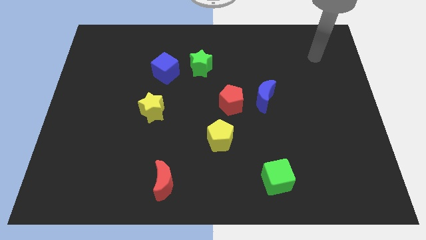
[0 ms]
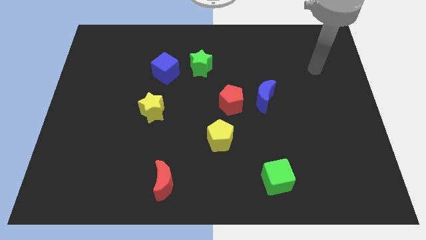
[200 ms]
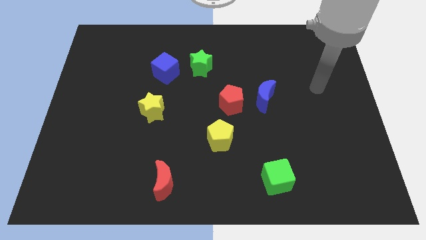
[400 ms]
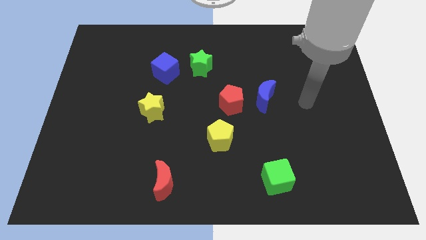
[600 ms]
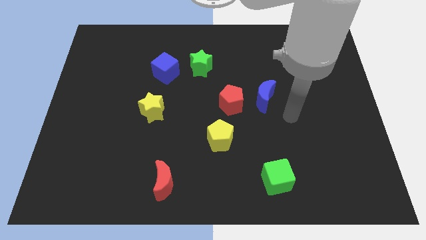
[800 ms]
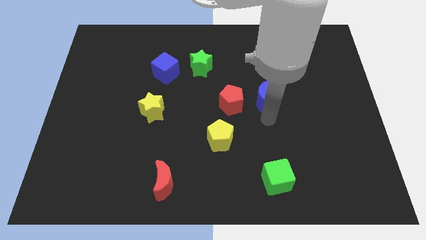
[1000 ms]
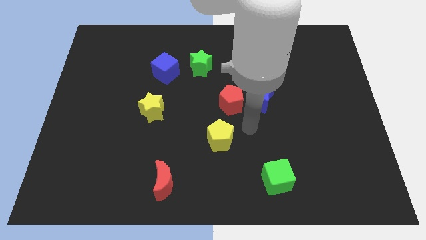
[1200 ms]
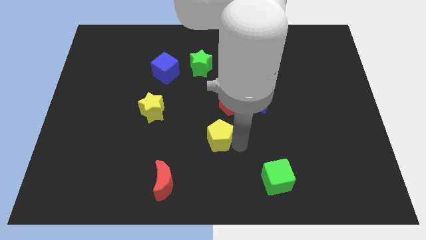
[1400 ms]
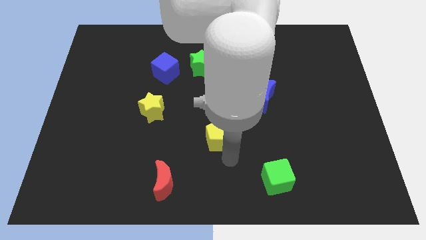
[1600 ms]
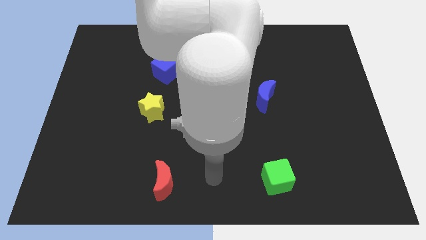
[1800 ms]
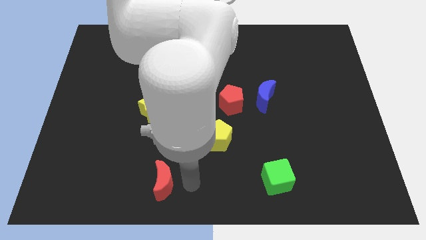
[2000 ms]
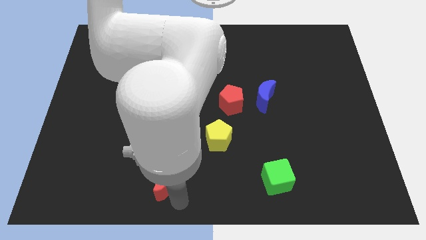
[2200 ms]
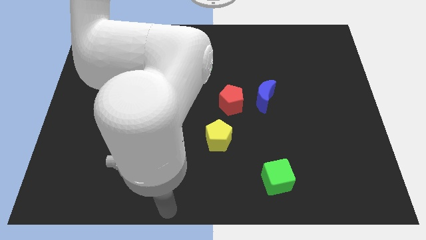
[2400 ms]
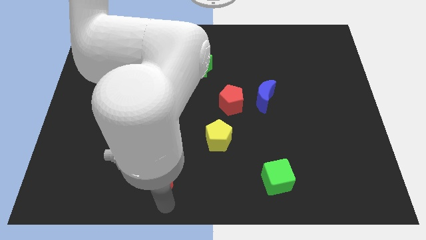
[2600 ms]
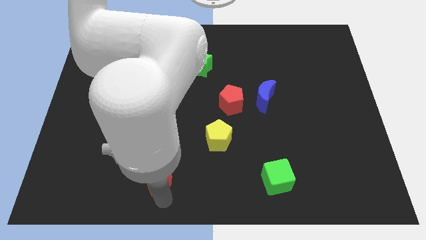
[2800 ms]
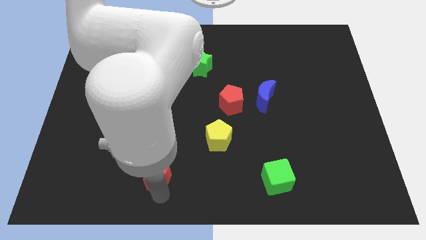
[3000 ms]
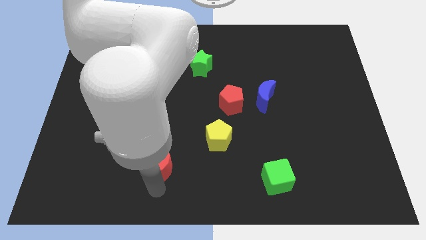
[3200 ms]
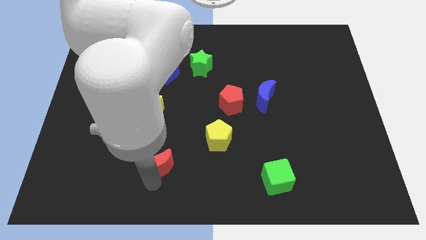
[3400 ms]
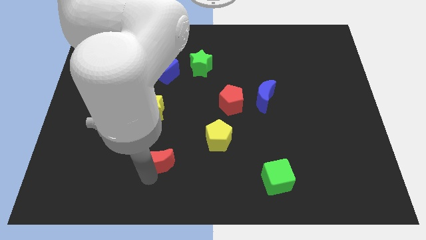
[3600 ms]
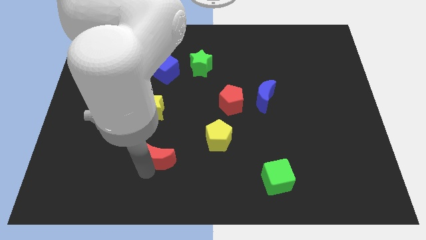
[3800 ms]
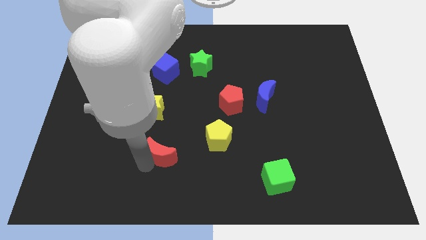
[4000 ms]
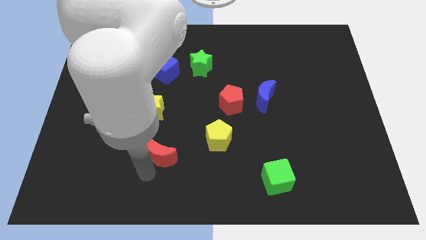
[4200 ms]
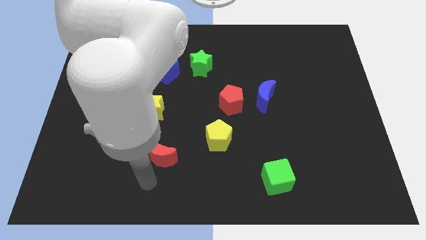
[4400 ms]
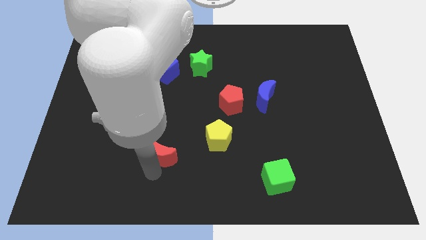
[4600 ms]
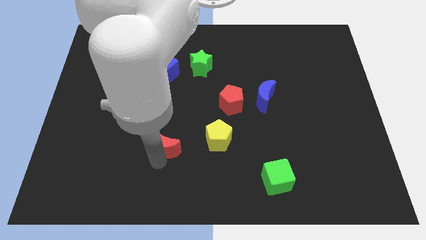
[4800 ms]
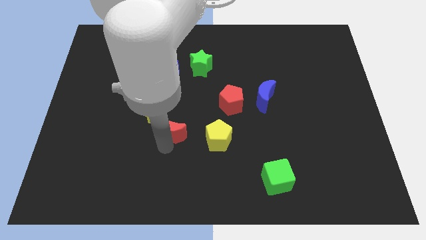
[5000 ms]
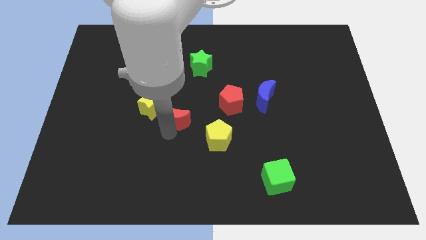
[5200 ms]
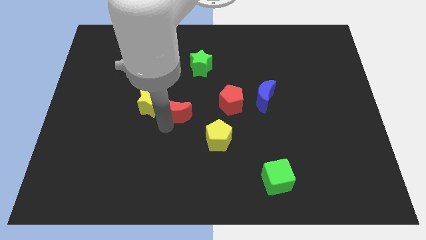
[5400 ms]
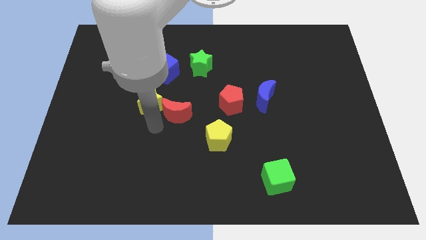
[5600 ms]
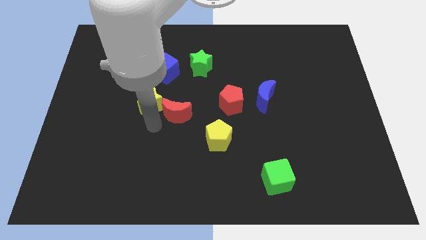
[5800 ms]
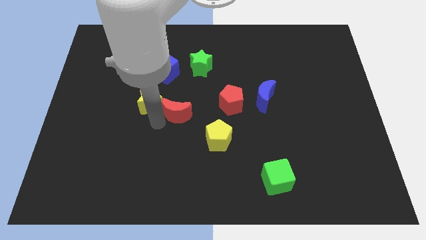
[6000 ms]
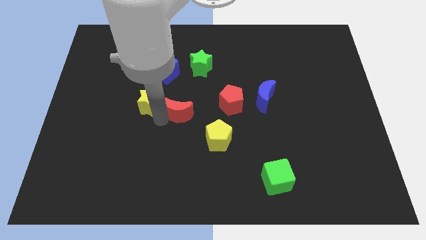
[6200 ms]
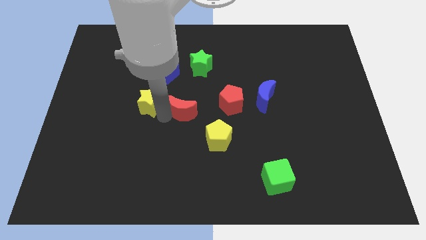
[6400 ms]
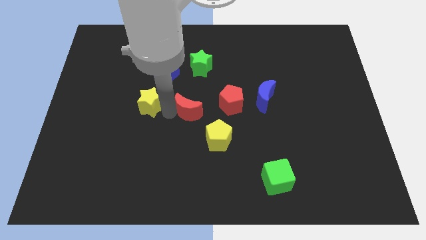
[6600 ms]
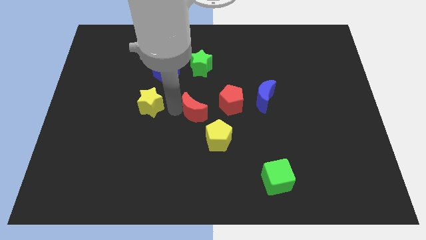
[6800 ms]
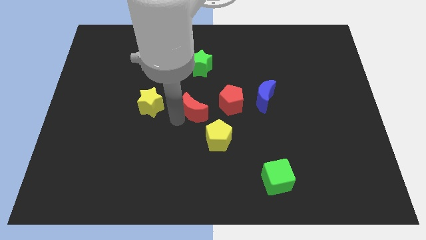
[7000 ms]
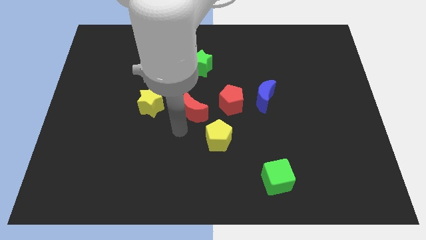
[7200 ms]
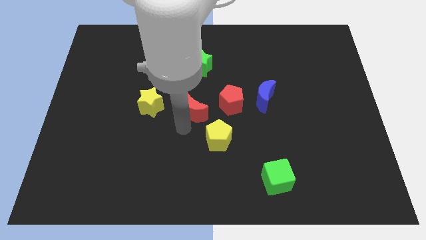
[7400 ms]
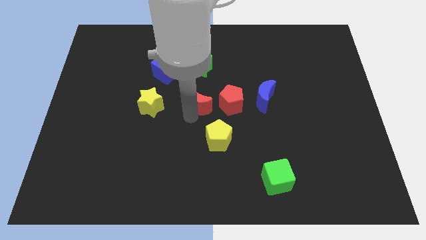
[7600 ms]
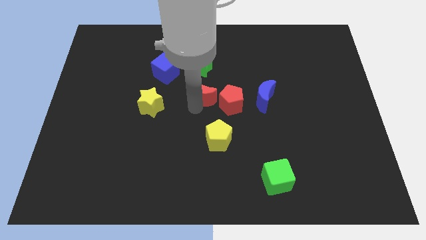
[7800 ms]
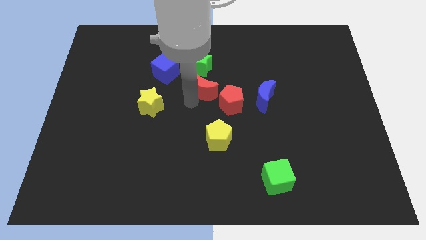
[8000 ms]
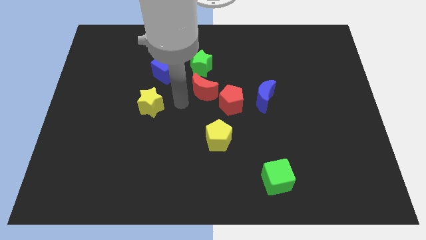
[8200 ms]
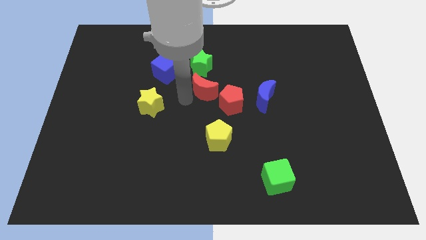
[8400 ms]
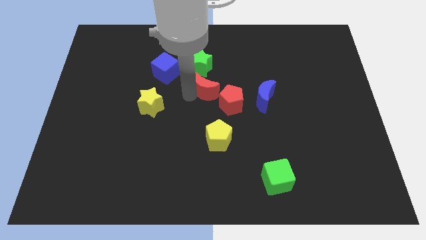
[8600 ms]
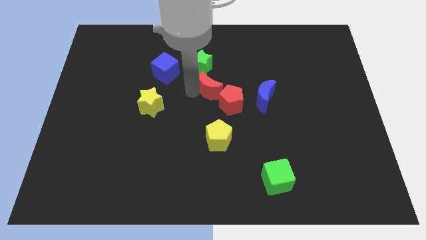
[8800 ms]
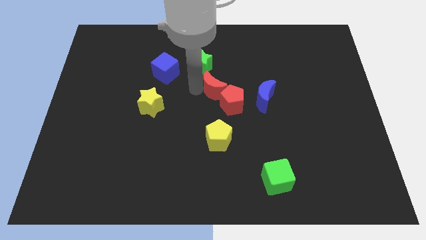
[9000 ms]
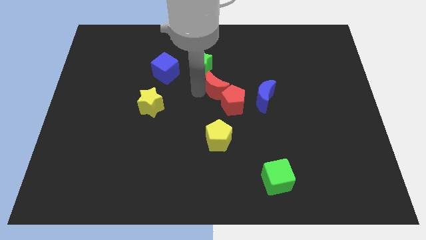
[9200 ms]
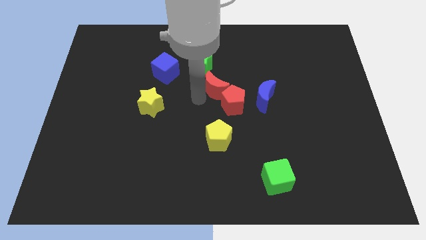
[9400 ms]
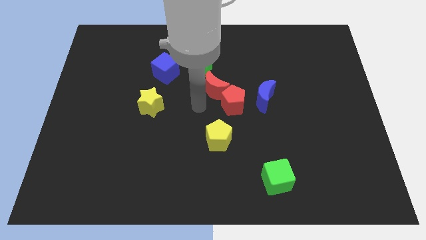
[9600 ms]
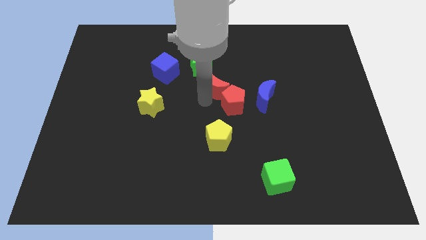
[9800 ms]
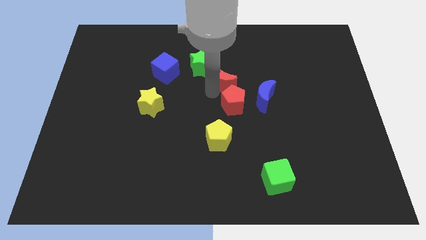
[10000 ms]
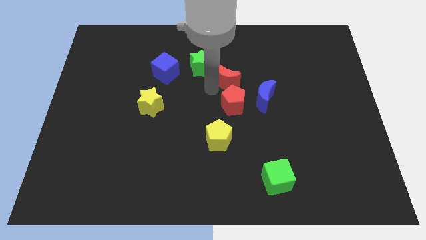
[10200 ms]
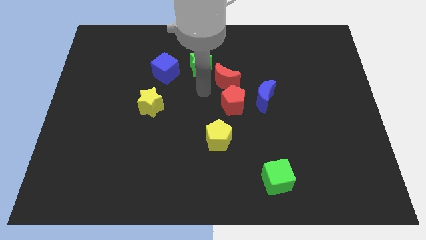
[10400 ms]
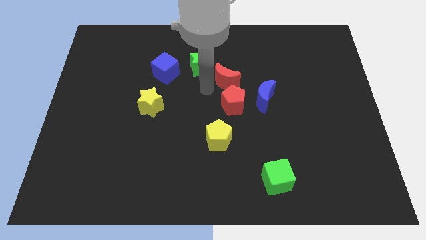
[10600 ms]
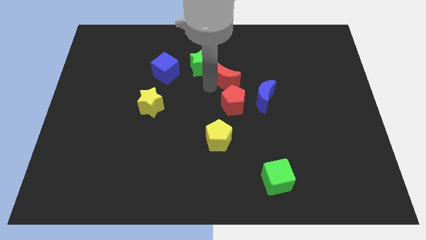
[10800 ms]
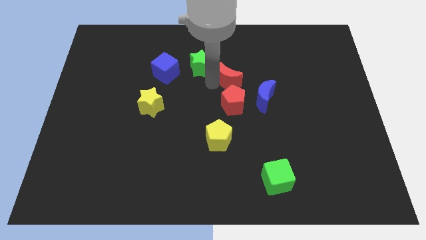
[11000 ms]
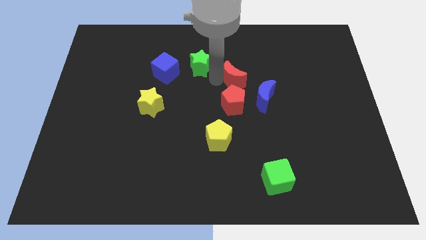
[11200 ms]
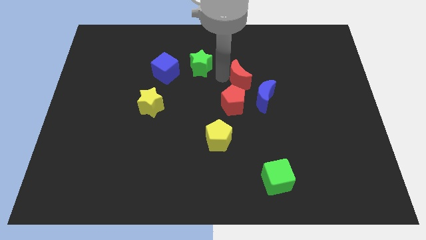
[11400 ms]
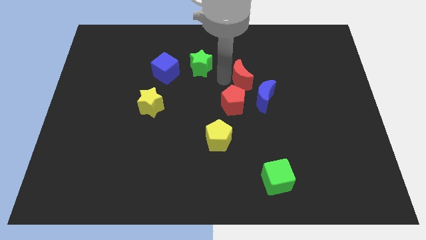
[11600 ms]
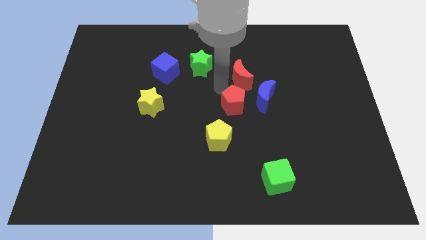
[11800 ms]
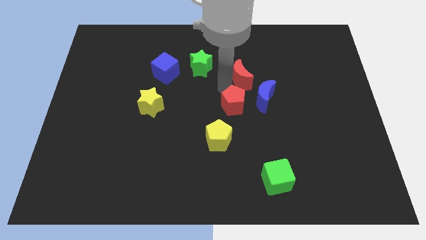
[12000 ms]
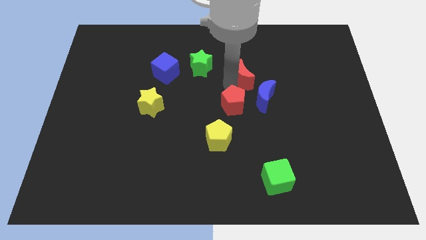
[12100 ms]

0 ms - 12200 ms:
move the red moon to the top of the blue moon

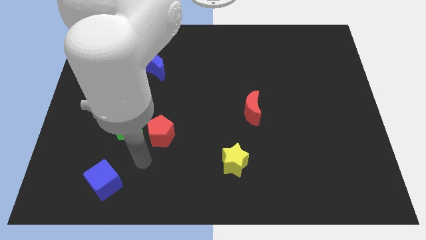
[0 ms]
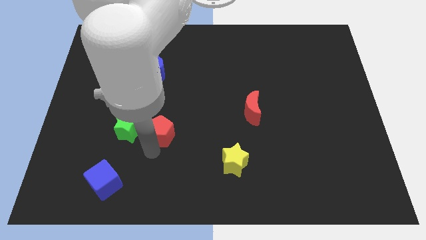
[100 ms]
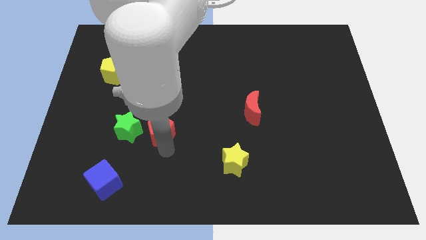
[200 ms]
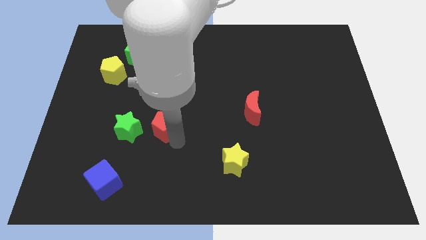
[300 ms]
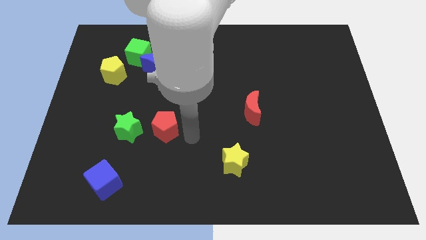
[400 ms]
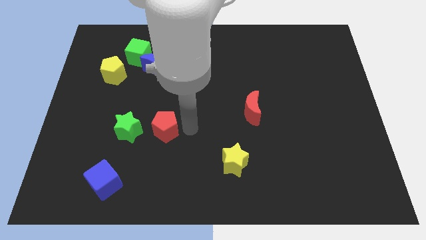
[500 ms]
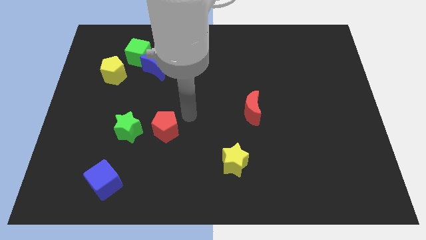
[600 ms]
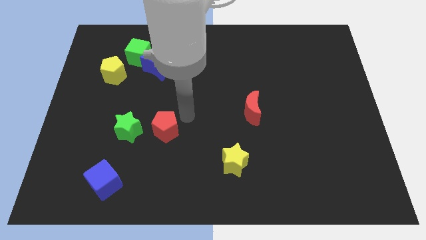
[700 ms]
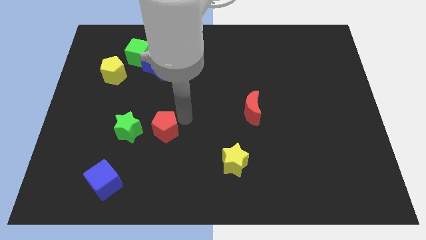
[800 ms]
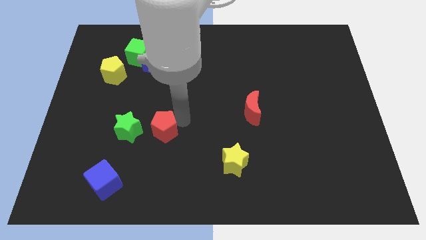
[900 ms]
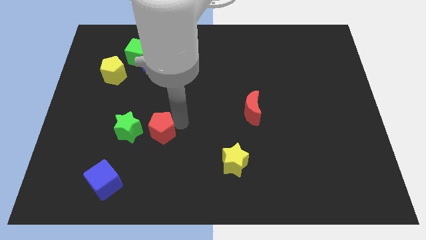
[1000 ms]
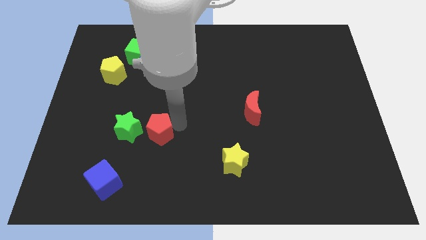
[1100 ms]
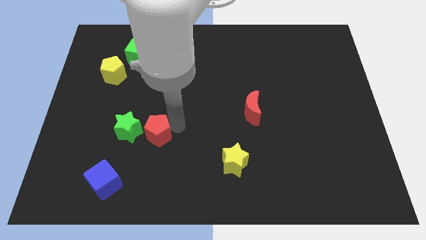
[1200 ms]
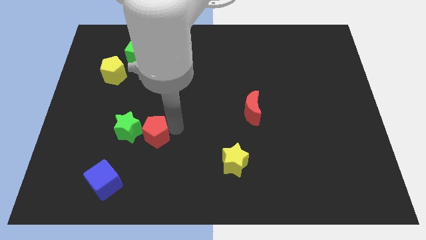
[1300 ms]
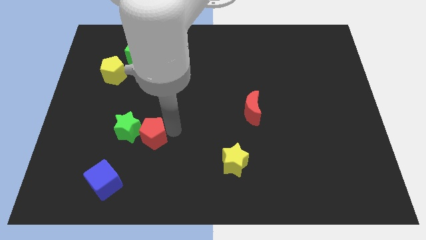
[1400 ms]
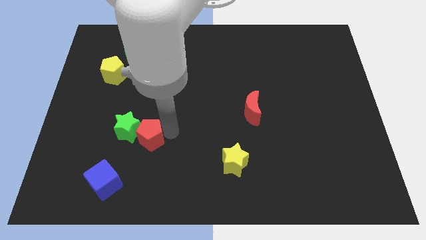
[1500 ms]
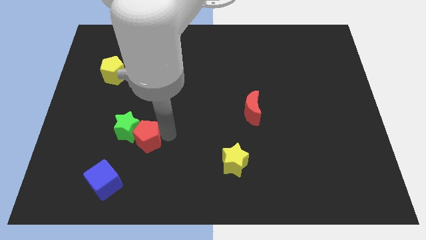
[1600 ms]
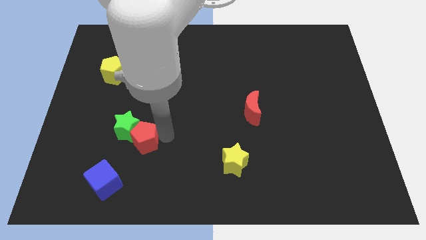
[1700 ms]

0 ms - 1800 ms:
put the red pentagon to the bottom side of the green star
